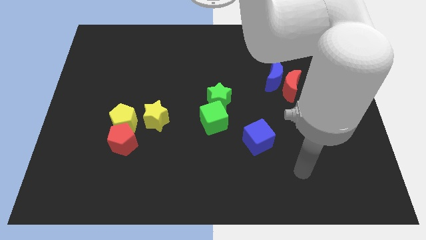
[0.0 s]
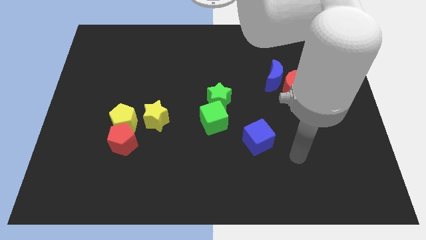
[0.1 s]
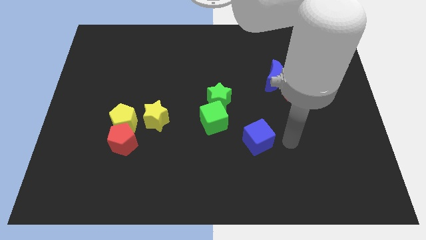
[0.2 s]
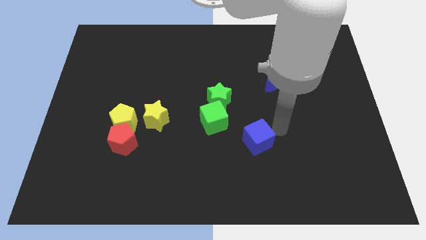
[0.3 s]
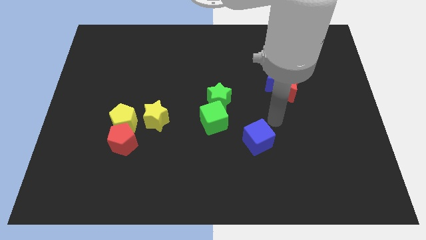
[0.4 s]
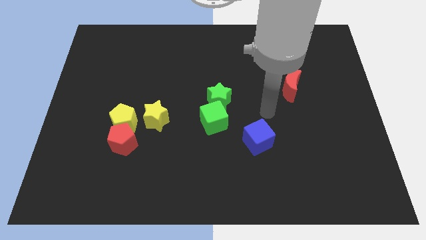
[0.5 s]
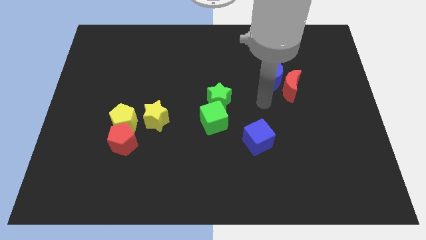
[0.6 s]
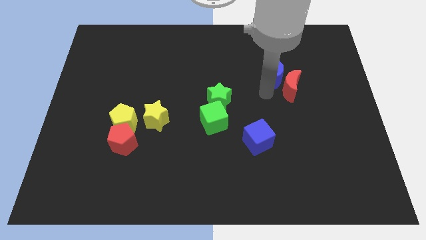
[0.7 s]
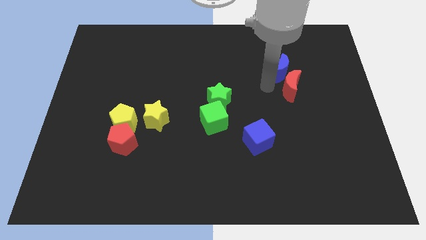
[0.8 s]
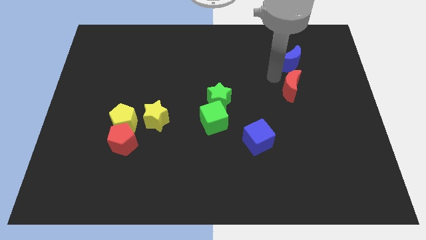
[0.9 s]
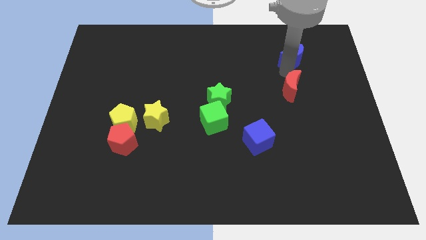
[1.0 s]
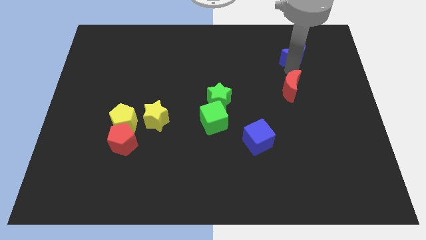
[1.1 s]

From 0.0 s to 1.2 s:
separate the red moon from the blue moon

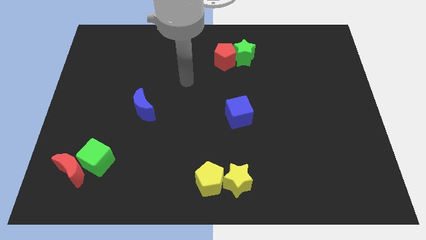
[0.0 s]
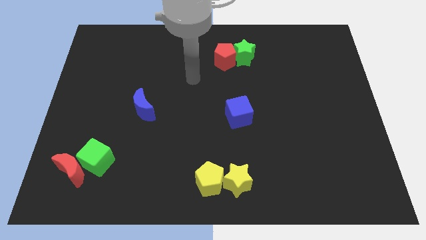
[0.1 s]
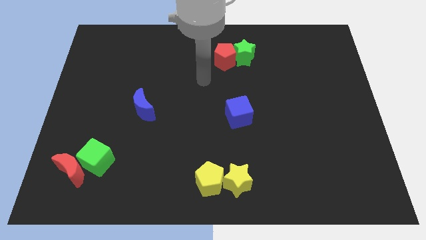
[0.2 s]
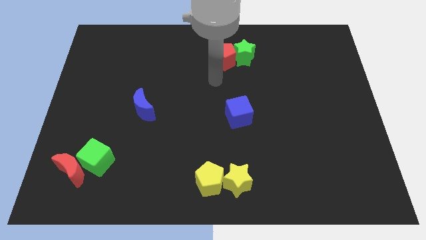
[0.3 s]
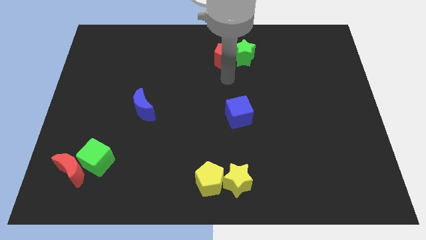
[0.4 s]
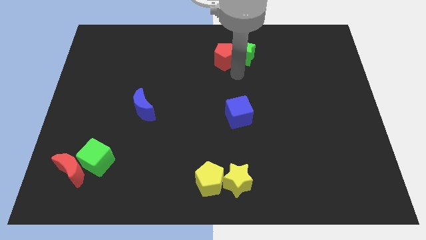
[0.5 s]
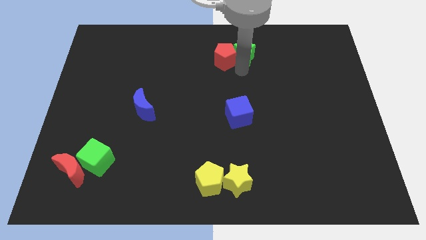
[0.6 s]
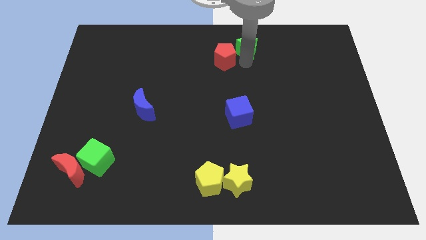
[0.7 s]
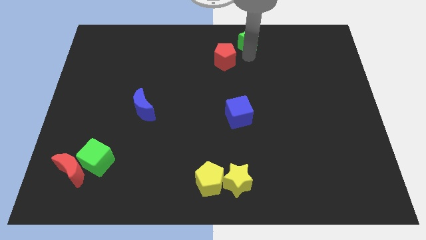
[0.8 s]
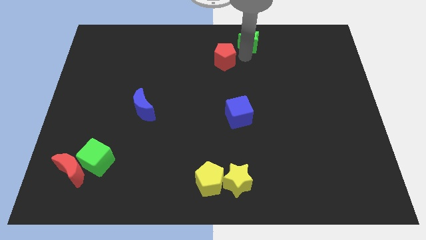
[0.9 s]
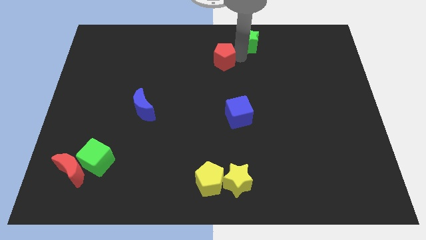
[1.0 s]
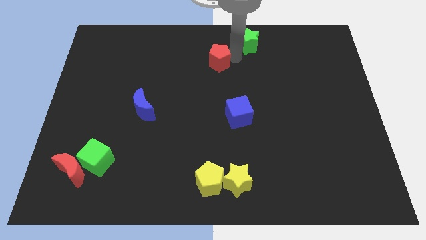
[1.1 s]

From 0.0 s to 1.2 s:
move the red pentagon away from the green star

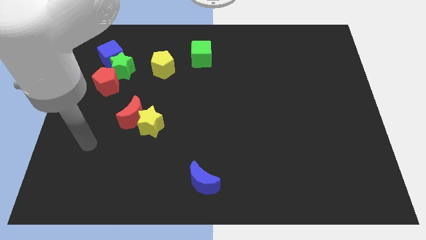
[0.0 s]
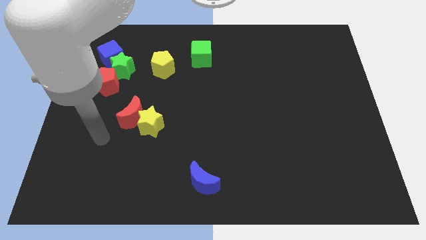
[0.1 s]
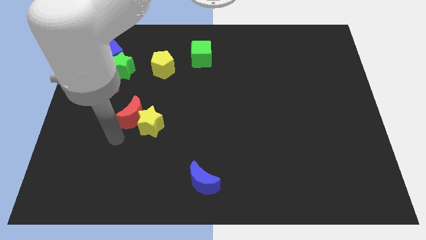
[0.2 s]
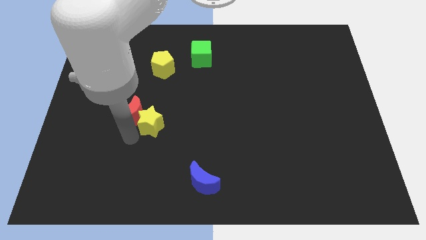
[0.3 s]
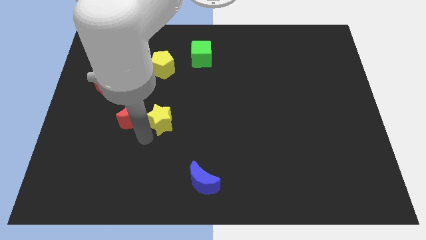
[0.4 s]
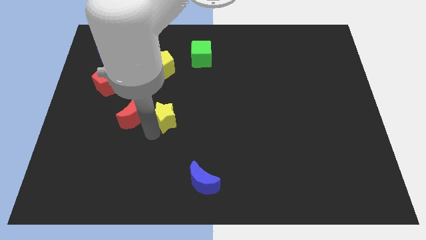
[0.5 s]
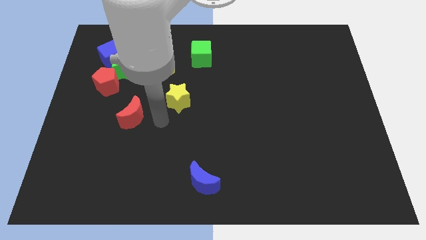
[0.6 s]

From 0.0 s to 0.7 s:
move the red moon away from the yellow star

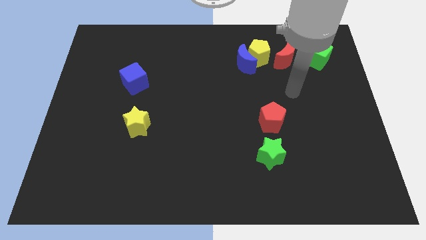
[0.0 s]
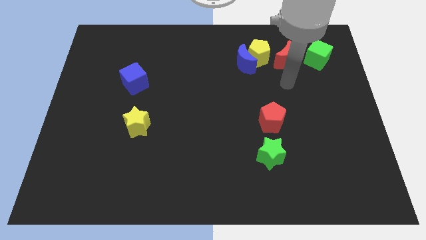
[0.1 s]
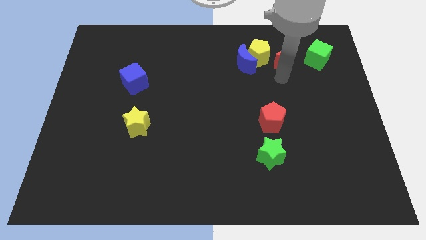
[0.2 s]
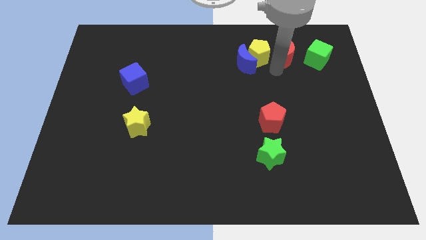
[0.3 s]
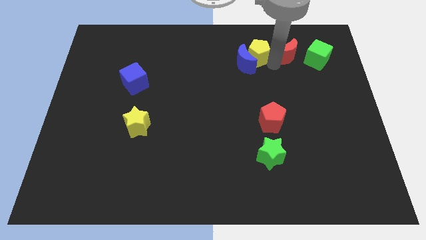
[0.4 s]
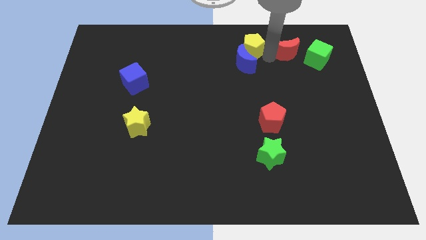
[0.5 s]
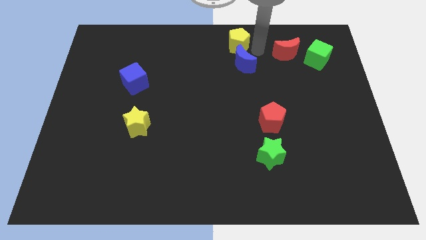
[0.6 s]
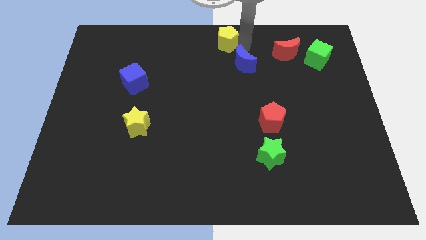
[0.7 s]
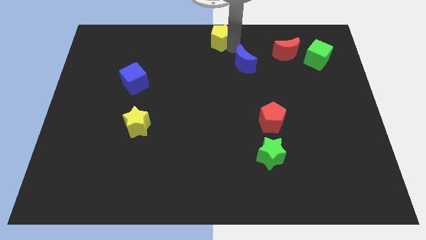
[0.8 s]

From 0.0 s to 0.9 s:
pull the blue moon apart from the yellow pentagon

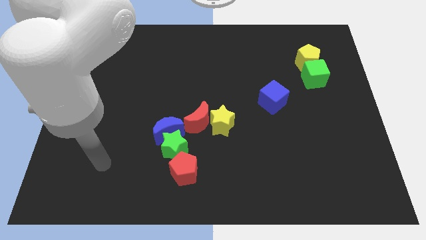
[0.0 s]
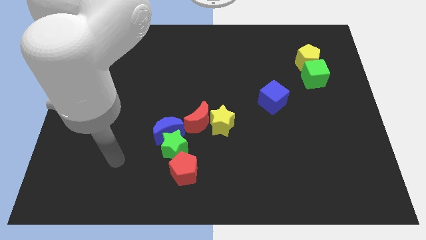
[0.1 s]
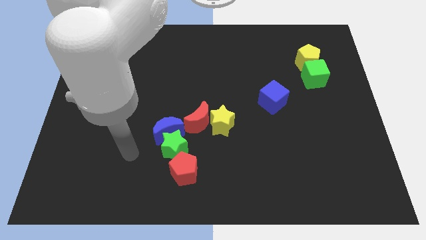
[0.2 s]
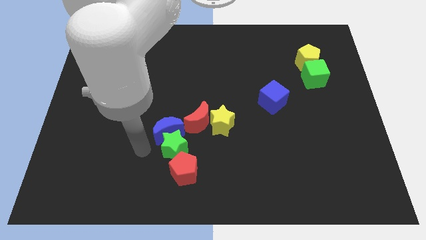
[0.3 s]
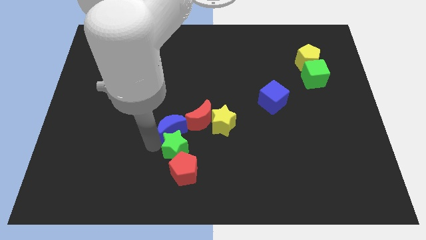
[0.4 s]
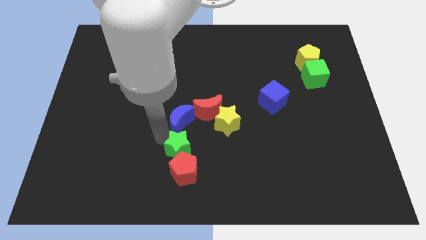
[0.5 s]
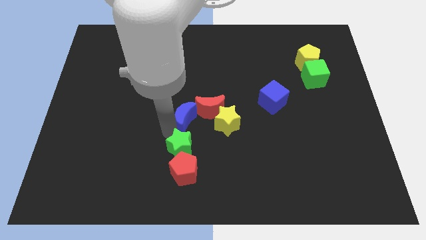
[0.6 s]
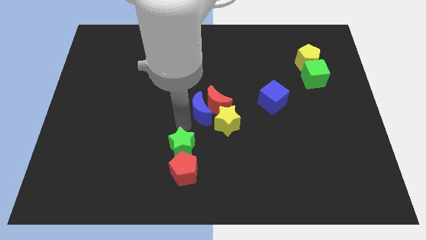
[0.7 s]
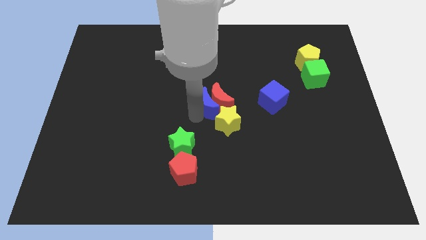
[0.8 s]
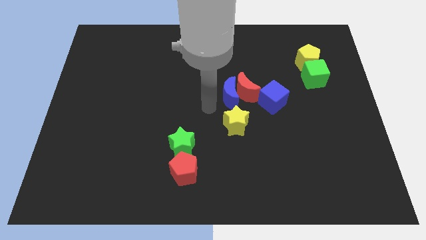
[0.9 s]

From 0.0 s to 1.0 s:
move the yellow star away from the red moon

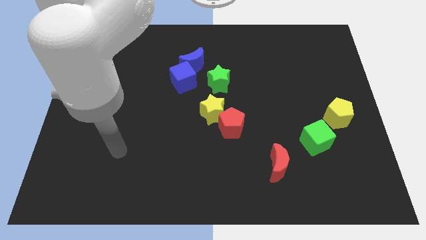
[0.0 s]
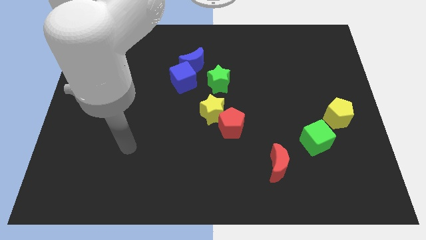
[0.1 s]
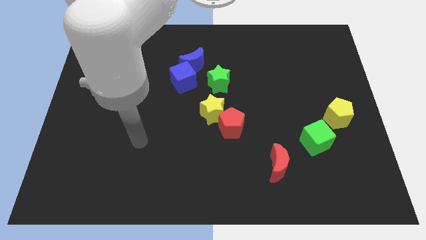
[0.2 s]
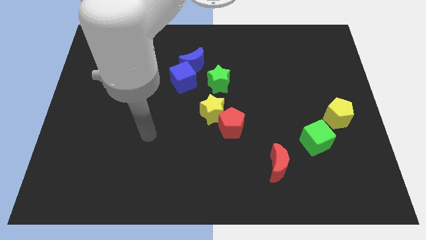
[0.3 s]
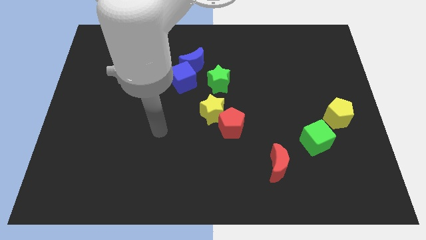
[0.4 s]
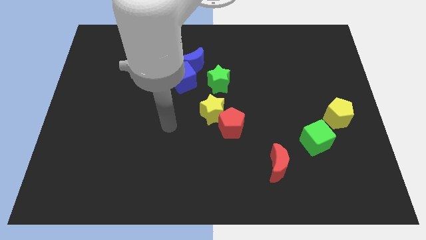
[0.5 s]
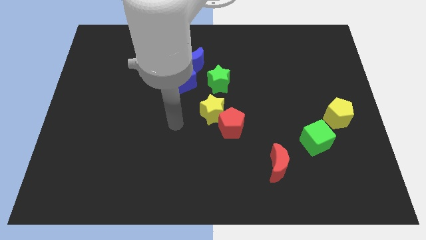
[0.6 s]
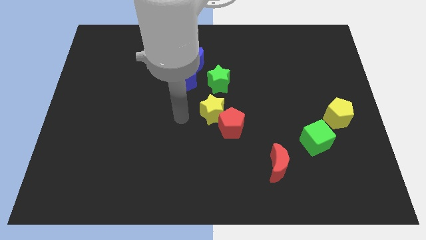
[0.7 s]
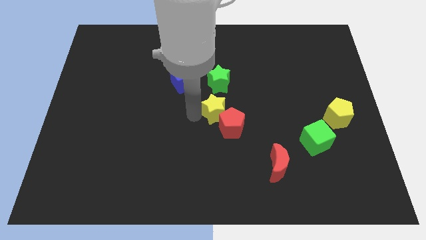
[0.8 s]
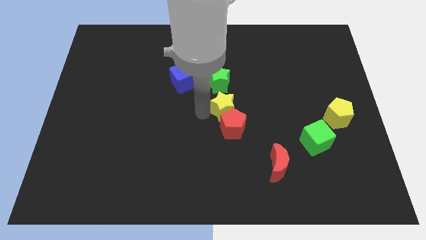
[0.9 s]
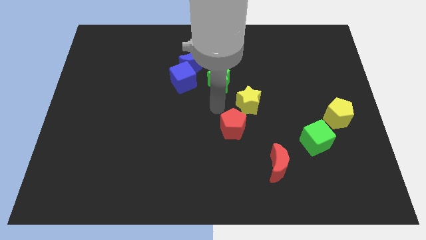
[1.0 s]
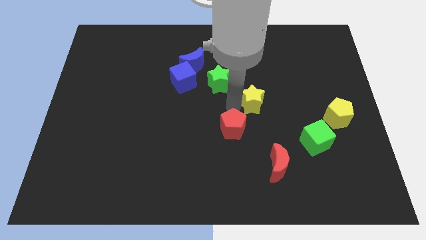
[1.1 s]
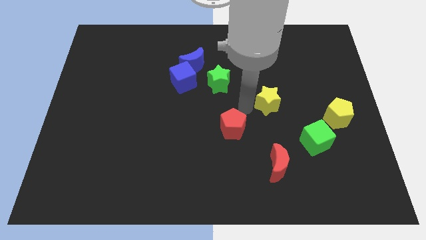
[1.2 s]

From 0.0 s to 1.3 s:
separate the red pentagon from the yellow star

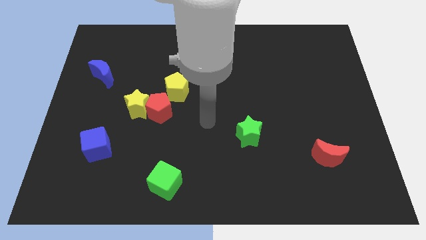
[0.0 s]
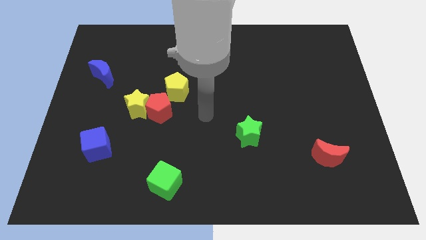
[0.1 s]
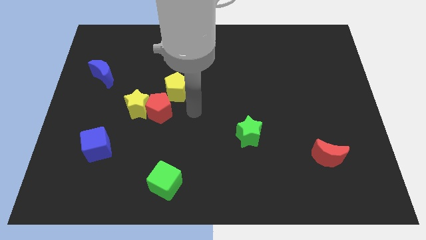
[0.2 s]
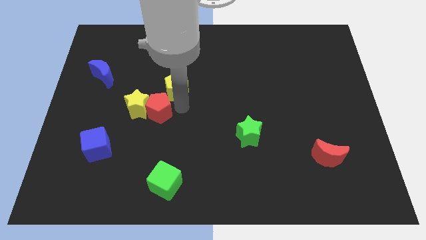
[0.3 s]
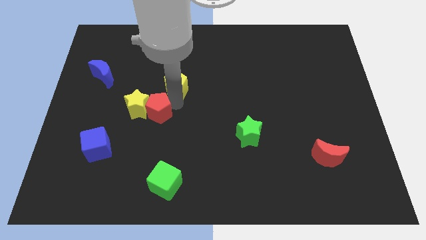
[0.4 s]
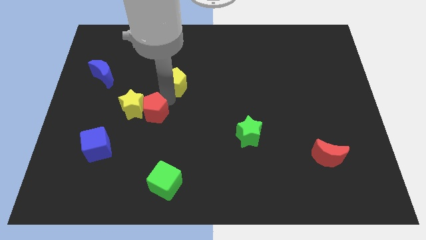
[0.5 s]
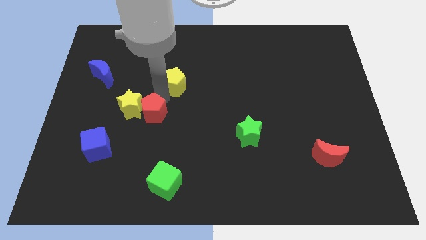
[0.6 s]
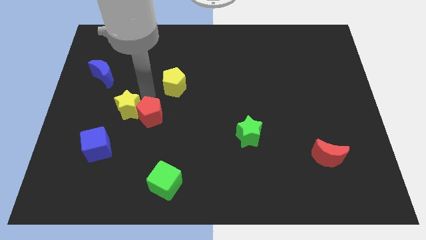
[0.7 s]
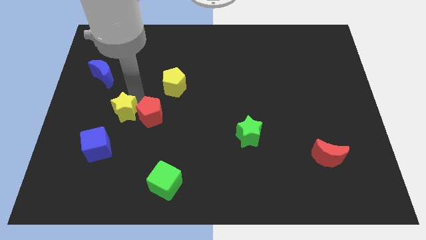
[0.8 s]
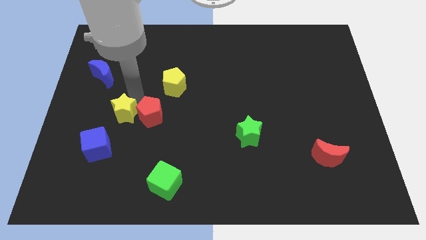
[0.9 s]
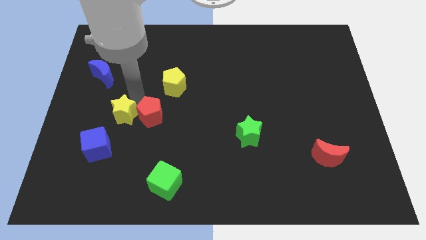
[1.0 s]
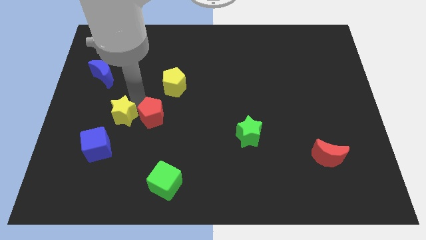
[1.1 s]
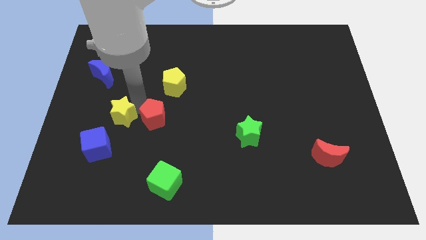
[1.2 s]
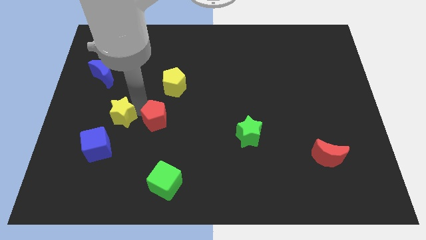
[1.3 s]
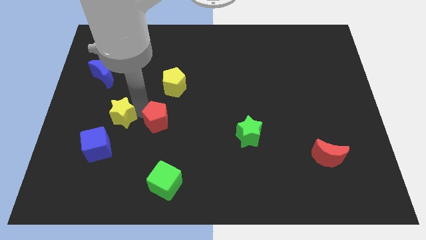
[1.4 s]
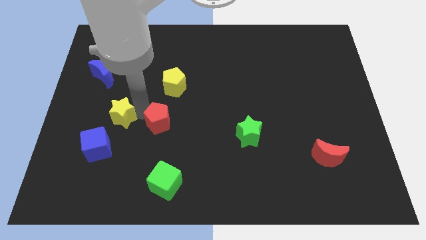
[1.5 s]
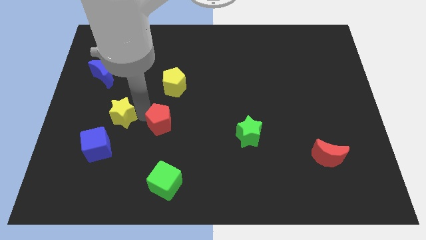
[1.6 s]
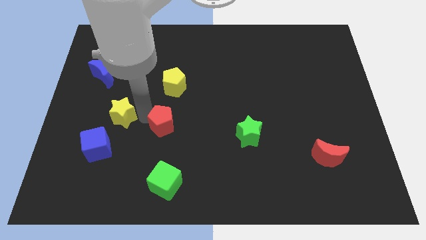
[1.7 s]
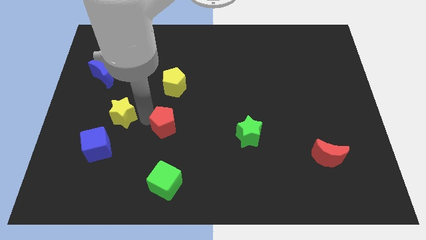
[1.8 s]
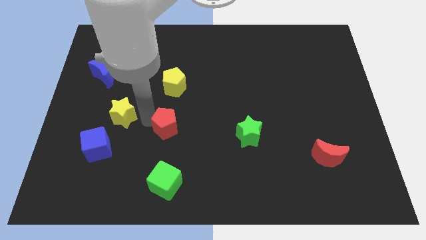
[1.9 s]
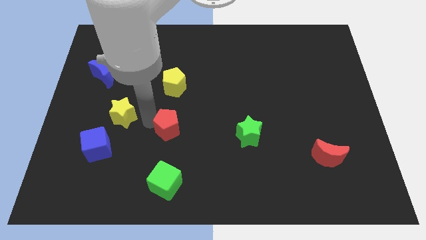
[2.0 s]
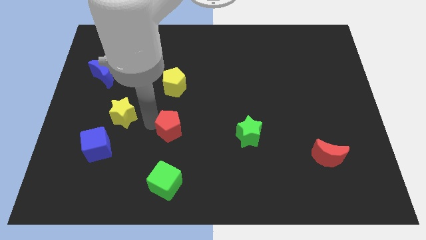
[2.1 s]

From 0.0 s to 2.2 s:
separate the red pentagon from the yellow star and yellow pentagon

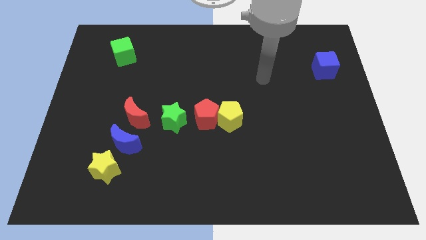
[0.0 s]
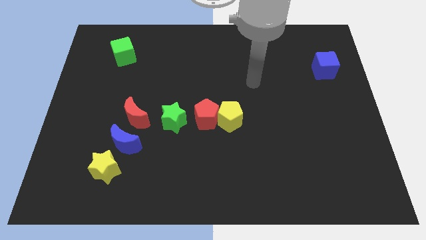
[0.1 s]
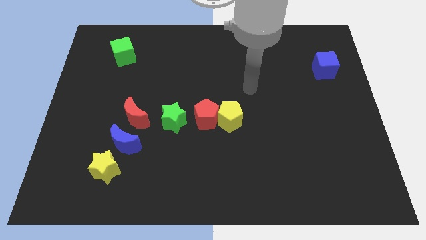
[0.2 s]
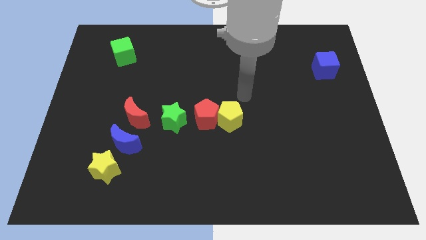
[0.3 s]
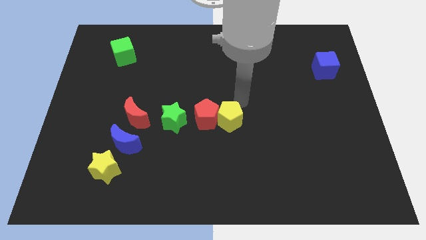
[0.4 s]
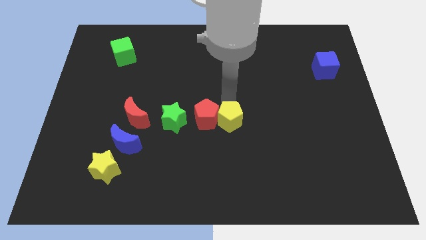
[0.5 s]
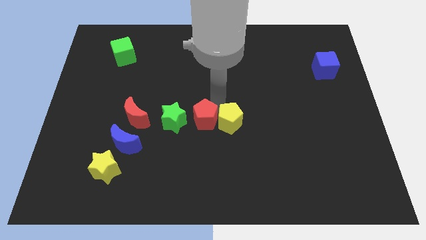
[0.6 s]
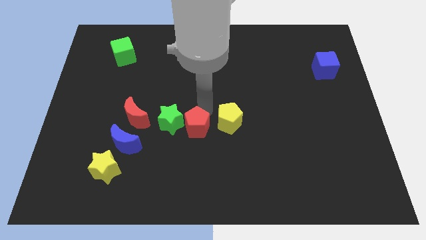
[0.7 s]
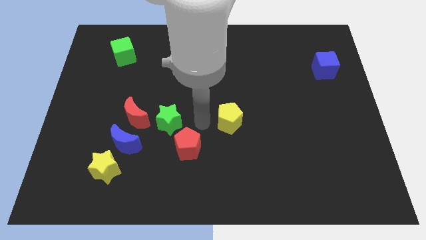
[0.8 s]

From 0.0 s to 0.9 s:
separate the yellow pentagon from the red pentagon
